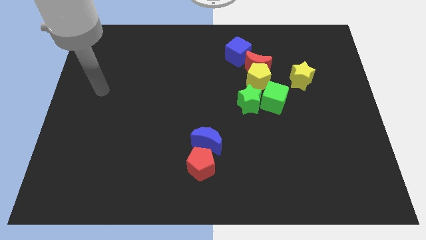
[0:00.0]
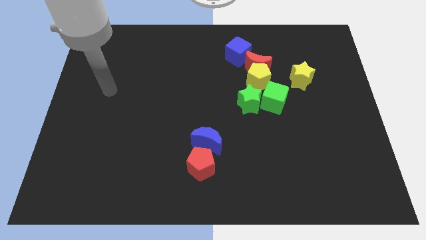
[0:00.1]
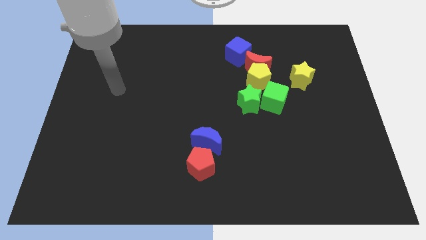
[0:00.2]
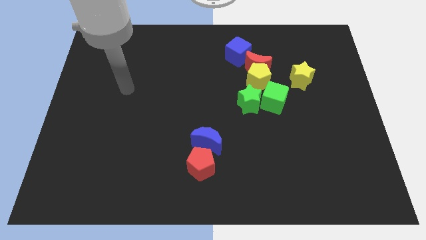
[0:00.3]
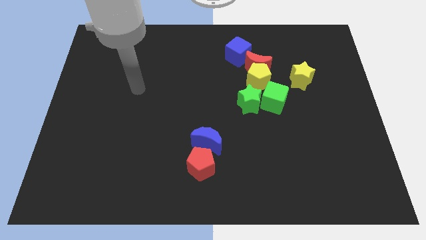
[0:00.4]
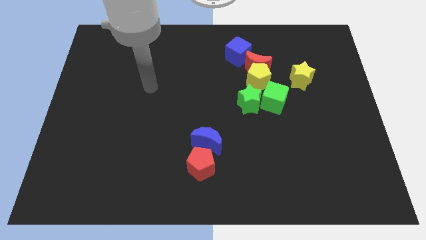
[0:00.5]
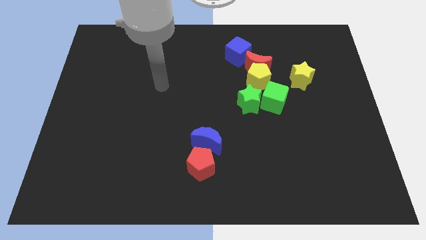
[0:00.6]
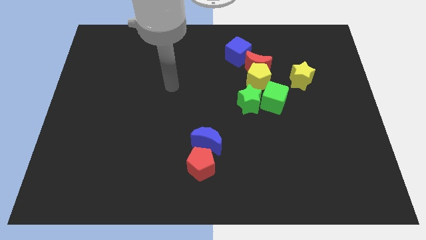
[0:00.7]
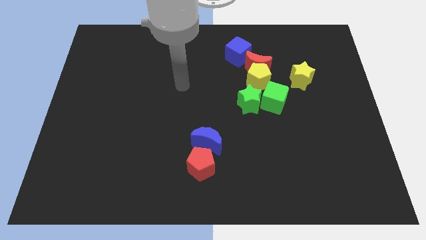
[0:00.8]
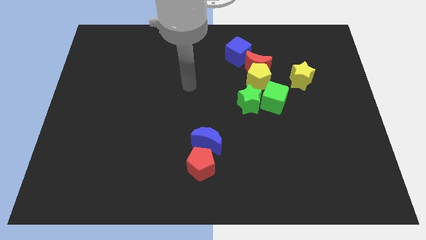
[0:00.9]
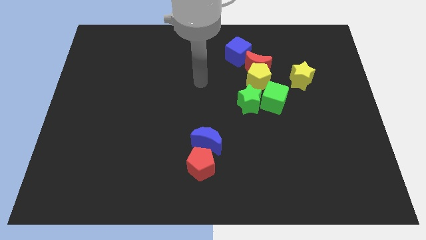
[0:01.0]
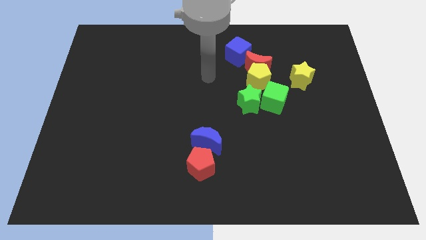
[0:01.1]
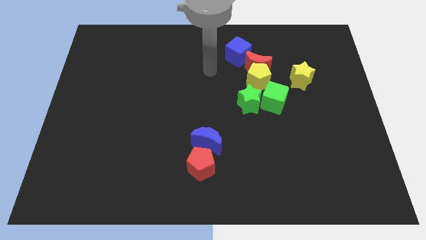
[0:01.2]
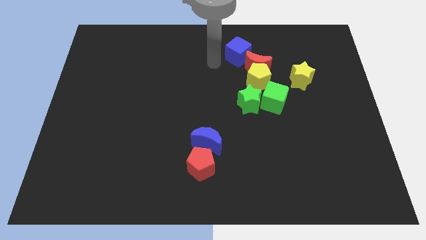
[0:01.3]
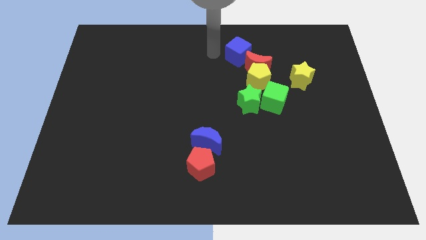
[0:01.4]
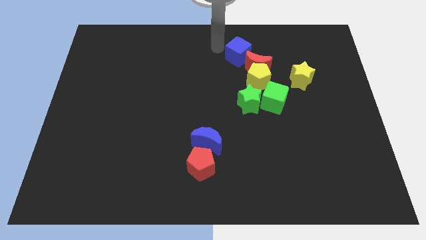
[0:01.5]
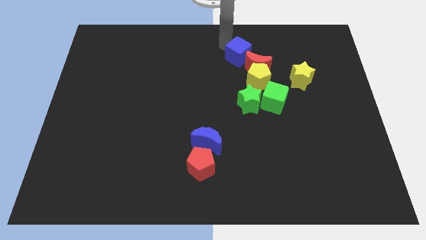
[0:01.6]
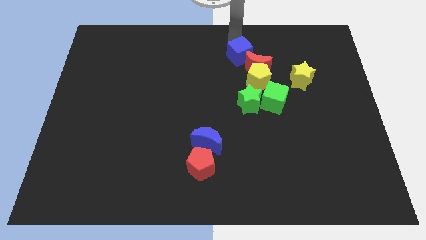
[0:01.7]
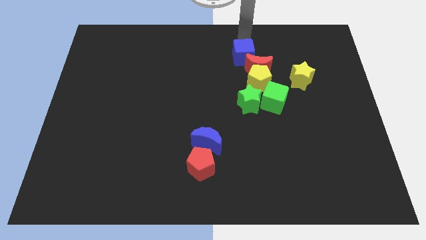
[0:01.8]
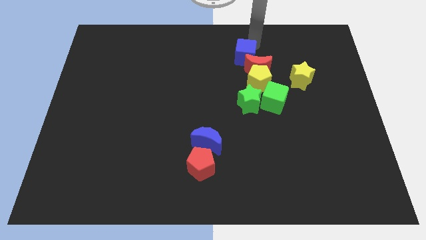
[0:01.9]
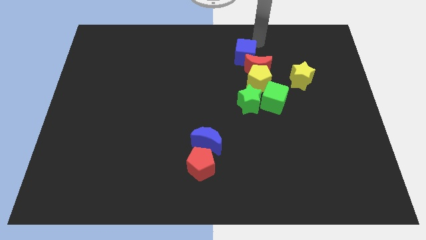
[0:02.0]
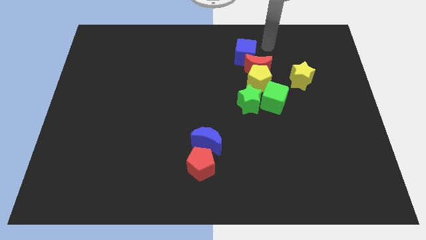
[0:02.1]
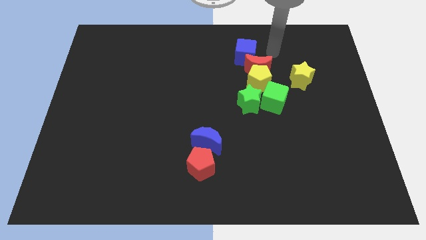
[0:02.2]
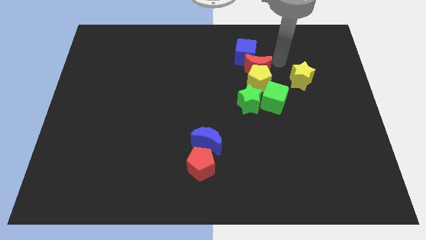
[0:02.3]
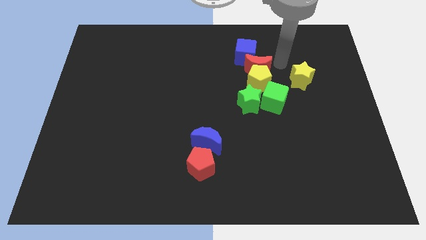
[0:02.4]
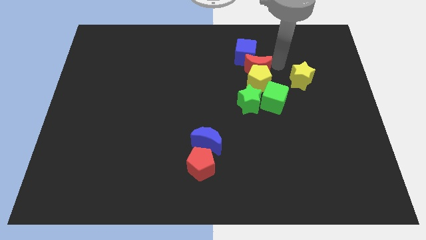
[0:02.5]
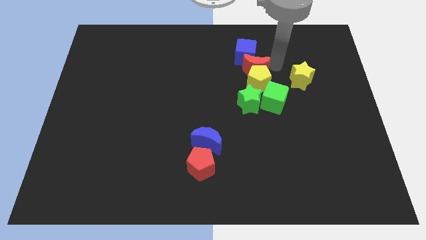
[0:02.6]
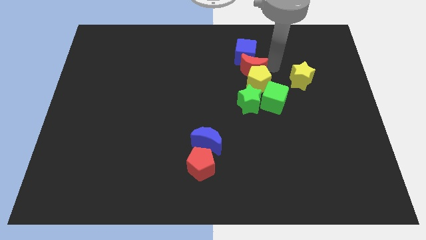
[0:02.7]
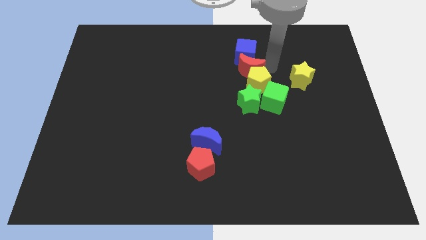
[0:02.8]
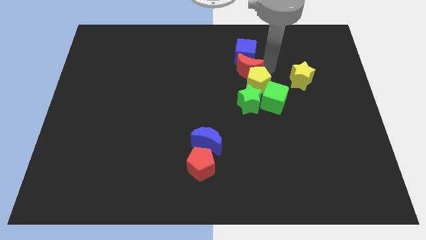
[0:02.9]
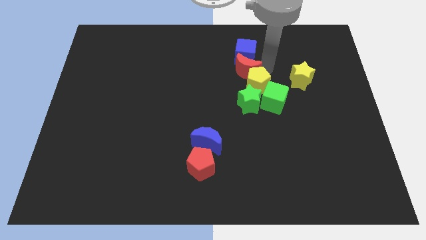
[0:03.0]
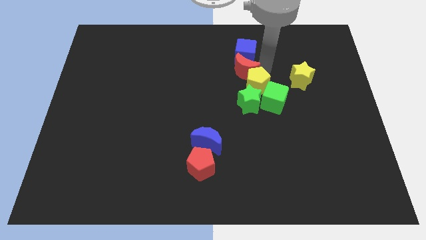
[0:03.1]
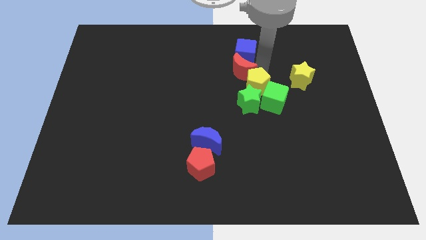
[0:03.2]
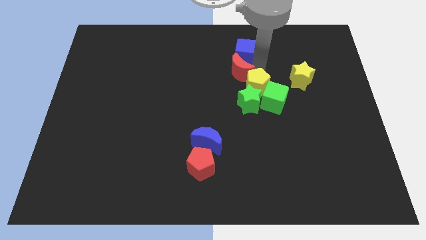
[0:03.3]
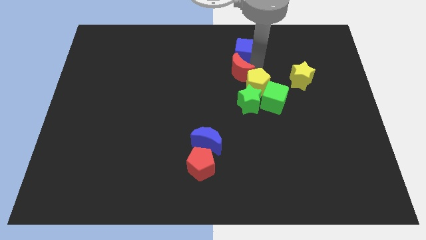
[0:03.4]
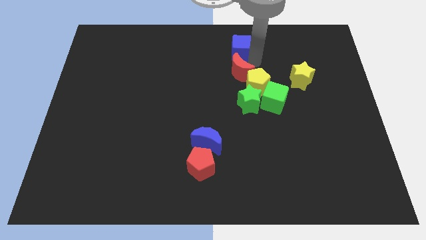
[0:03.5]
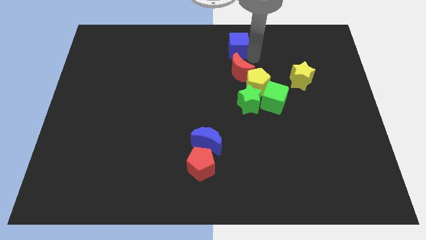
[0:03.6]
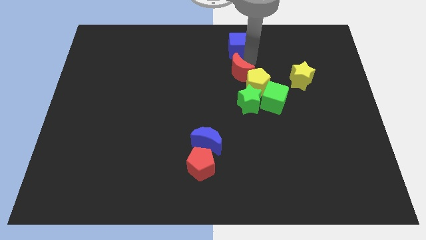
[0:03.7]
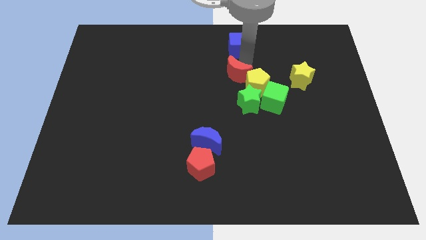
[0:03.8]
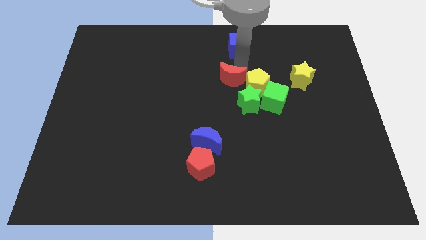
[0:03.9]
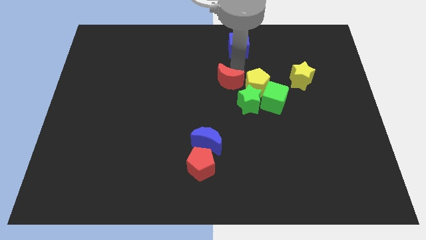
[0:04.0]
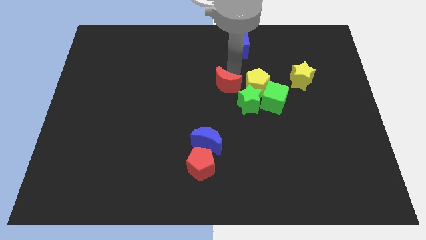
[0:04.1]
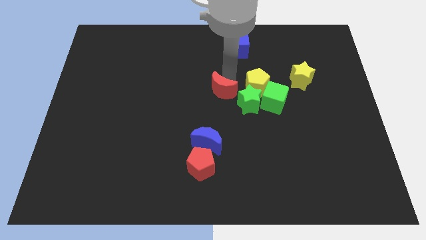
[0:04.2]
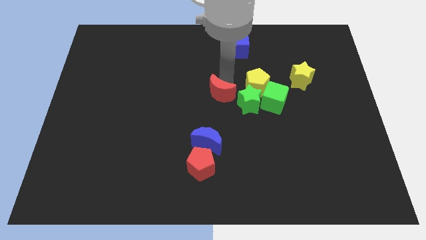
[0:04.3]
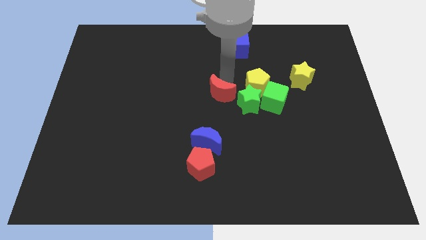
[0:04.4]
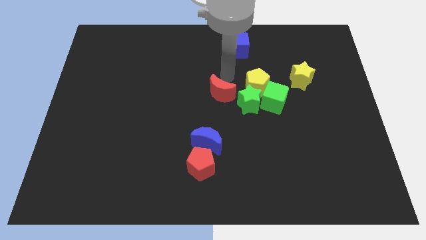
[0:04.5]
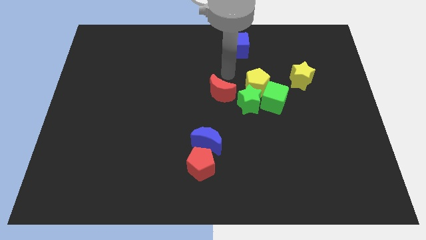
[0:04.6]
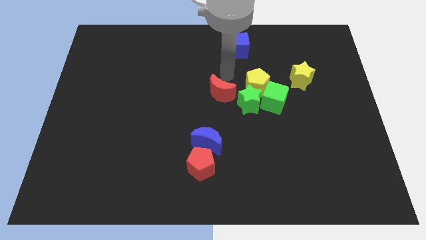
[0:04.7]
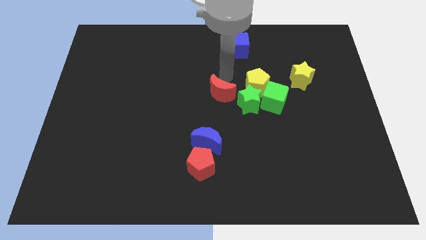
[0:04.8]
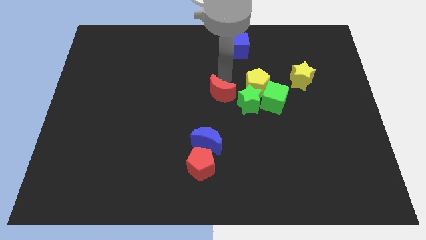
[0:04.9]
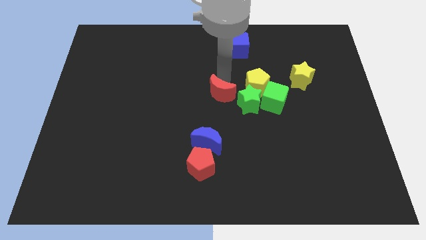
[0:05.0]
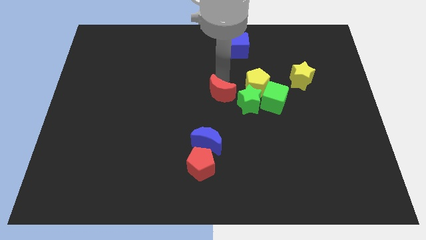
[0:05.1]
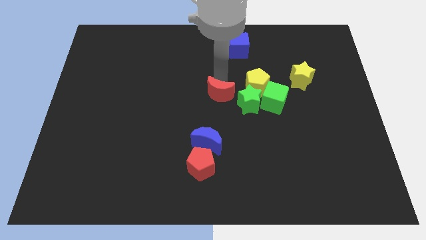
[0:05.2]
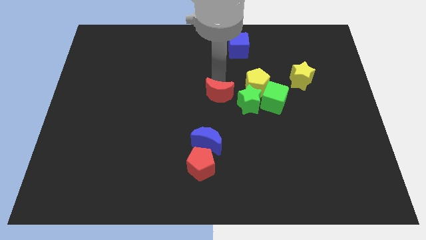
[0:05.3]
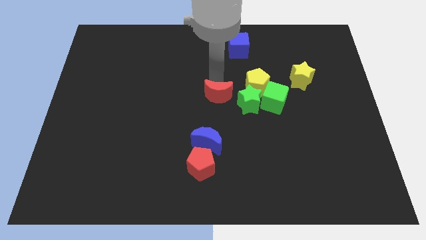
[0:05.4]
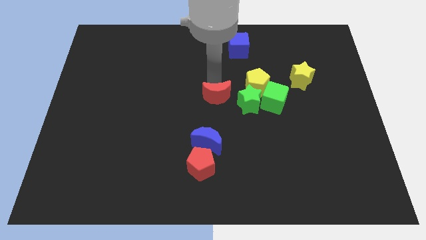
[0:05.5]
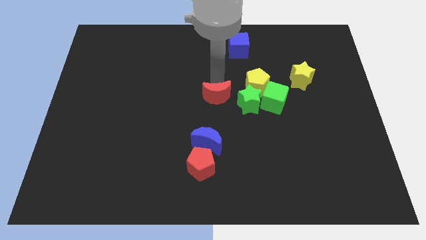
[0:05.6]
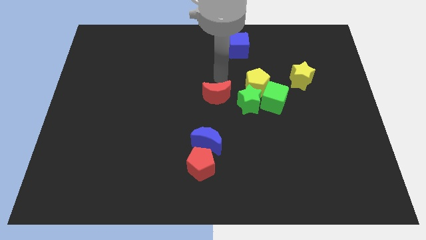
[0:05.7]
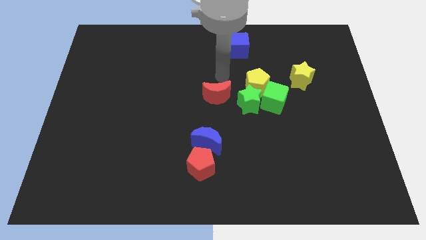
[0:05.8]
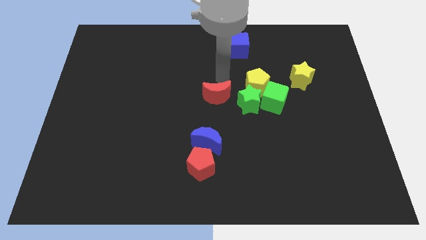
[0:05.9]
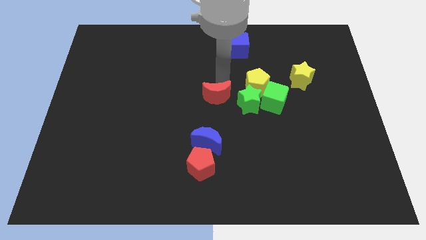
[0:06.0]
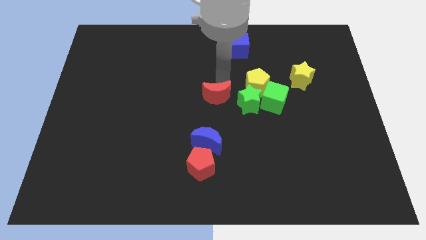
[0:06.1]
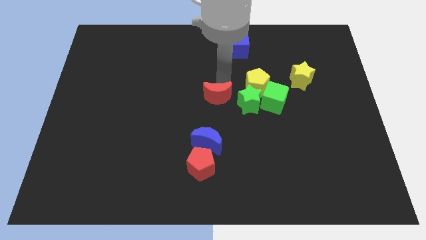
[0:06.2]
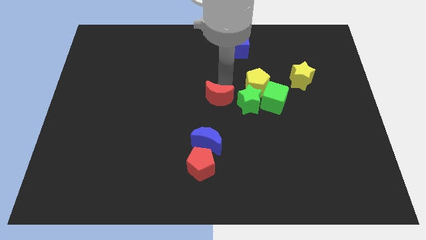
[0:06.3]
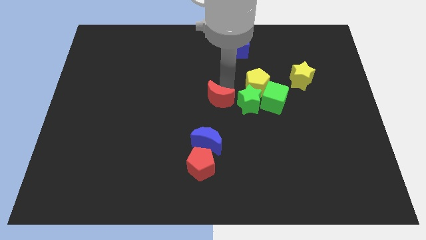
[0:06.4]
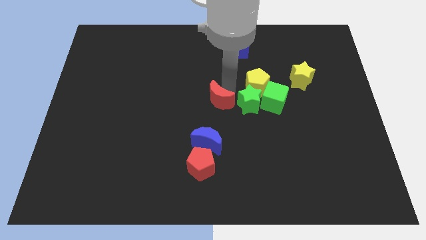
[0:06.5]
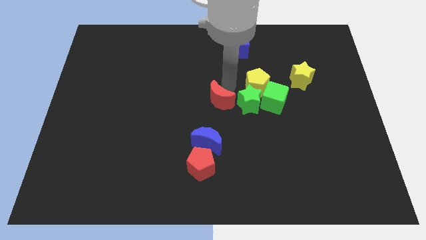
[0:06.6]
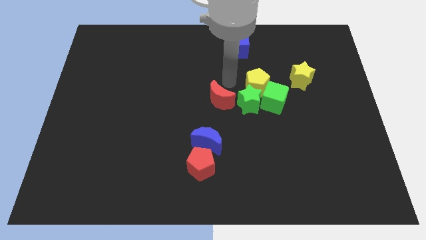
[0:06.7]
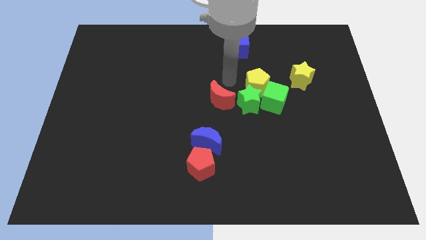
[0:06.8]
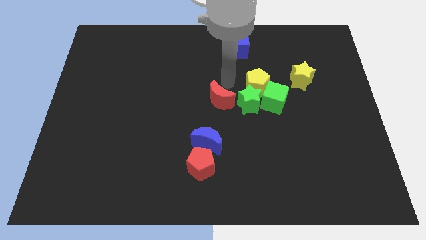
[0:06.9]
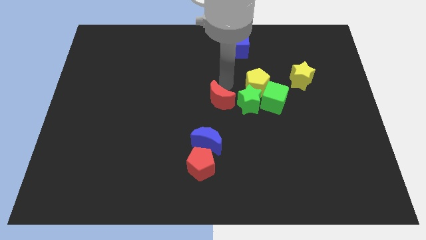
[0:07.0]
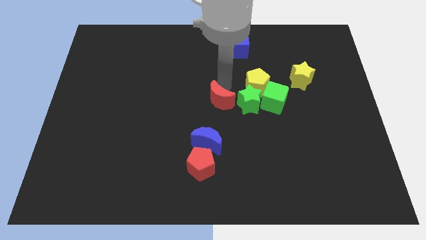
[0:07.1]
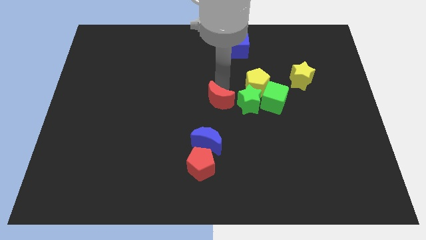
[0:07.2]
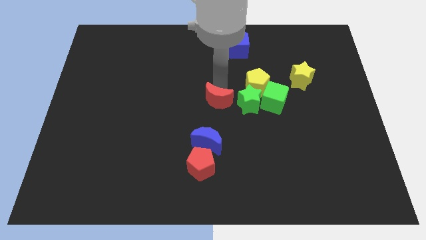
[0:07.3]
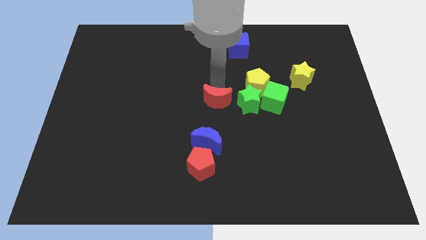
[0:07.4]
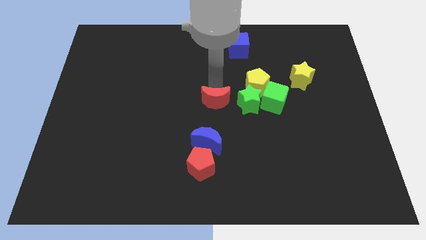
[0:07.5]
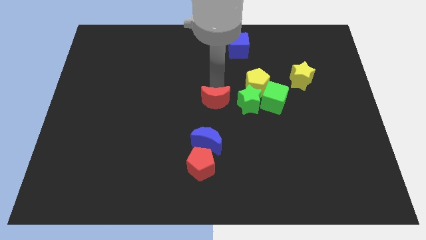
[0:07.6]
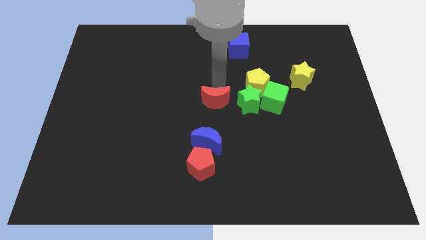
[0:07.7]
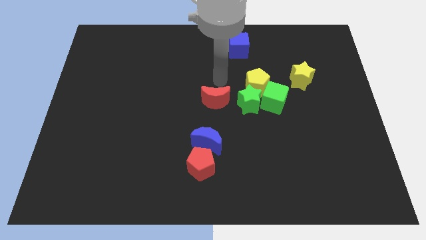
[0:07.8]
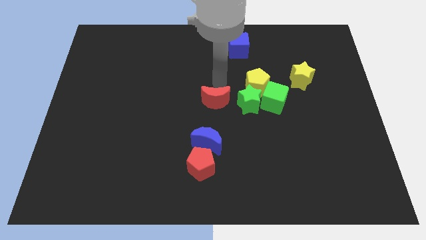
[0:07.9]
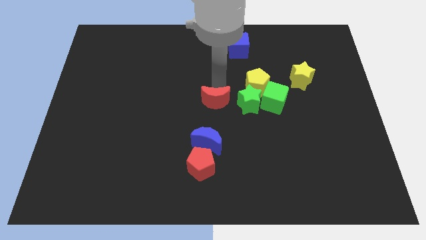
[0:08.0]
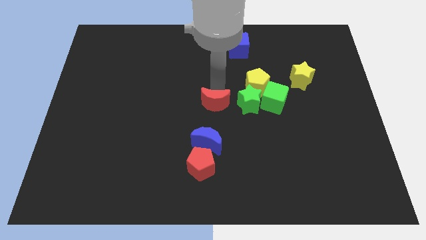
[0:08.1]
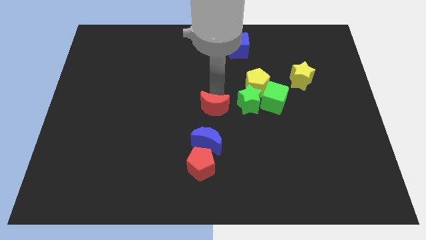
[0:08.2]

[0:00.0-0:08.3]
slide the red moon to the top side of the red pentagon
